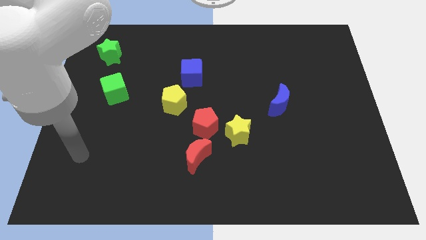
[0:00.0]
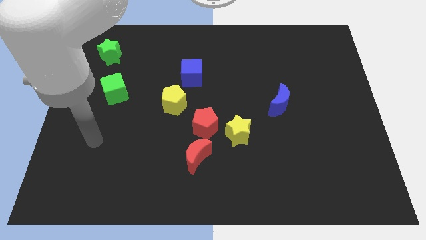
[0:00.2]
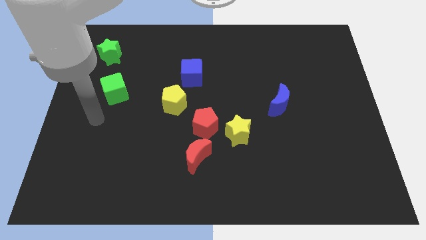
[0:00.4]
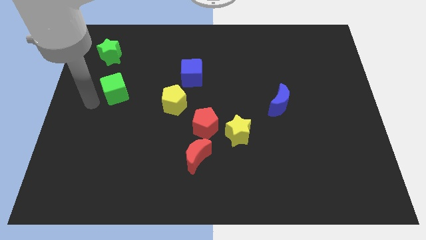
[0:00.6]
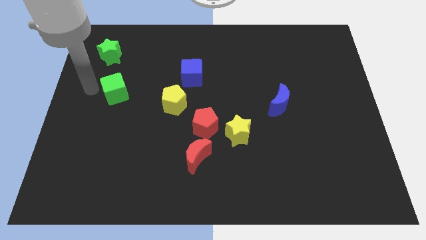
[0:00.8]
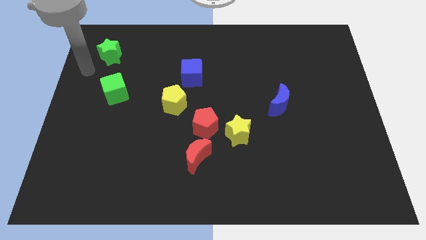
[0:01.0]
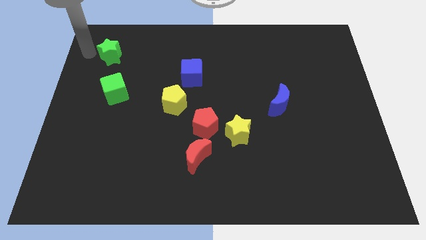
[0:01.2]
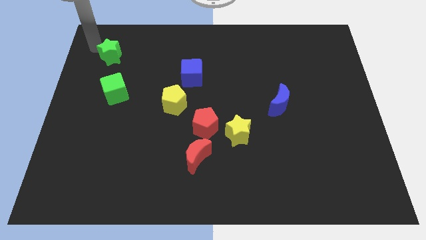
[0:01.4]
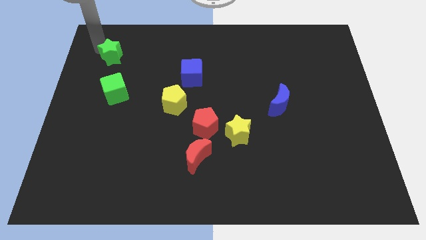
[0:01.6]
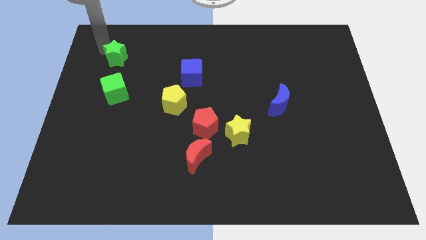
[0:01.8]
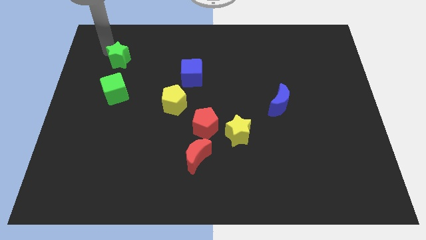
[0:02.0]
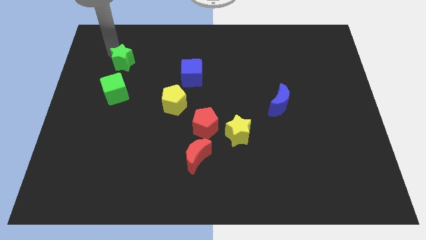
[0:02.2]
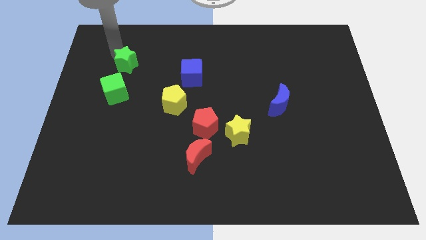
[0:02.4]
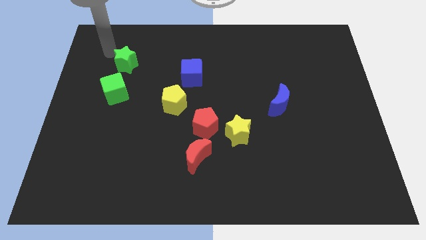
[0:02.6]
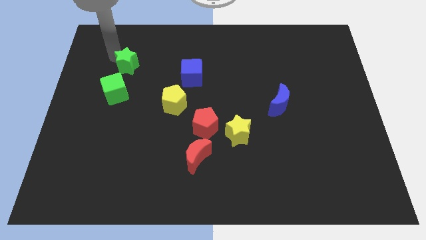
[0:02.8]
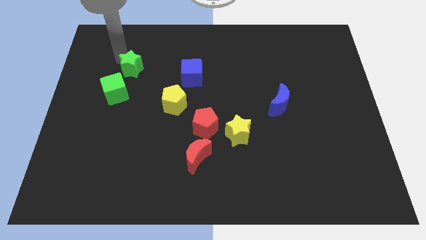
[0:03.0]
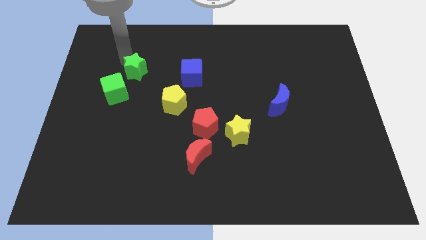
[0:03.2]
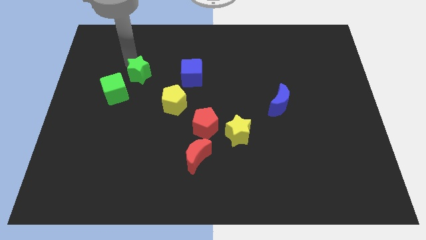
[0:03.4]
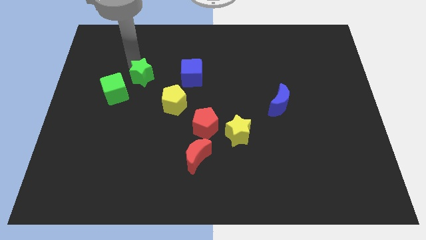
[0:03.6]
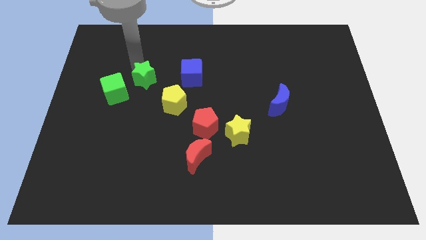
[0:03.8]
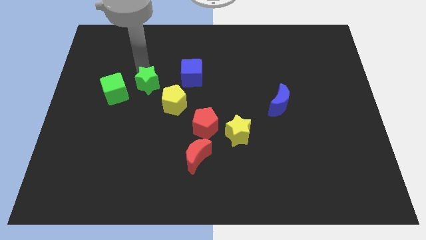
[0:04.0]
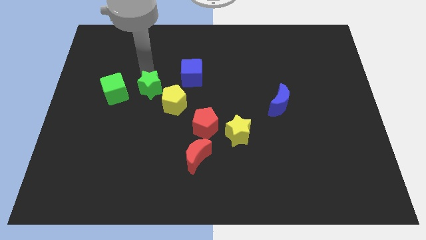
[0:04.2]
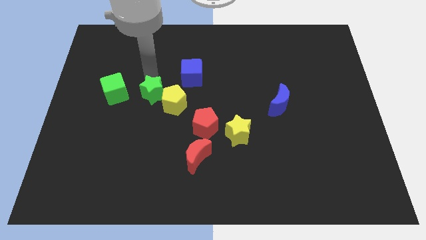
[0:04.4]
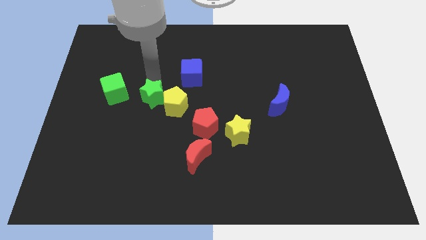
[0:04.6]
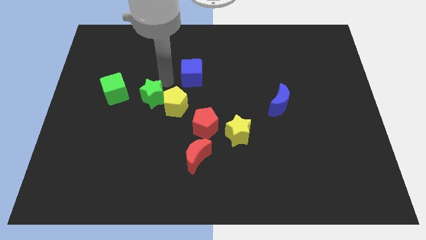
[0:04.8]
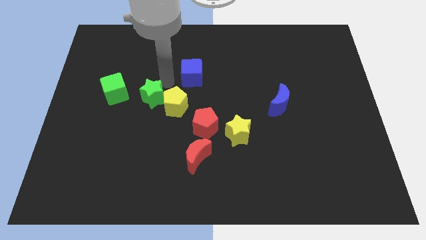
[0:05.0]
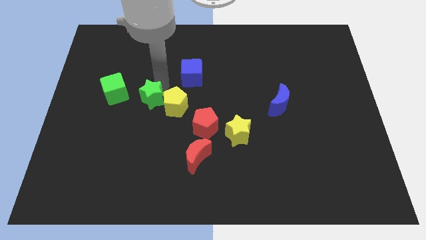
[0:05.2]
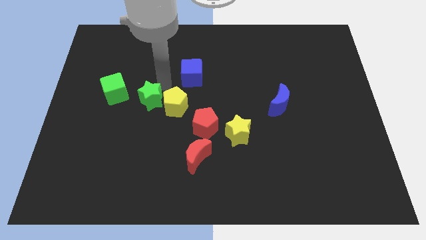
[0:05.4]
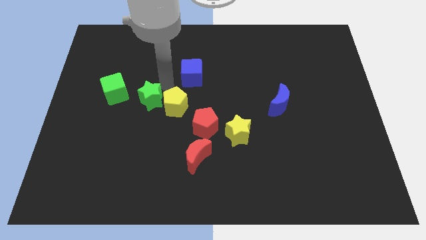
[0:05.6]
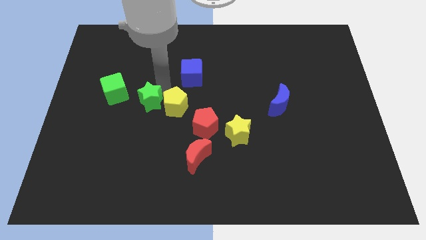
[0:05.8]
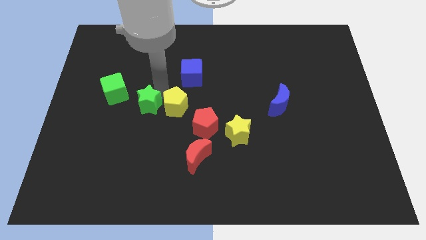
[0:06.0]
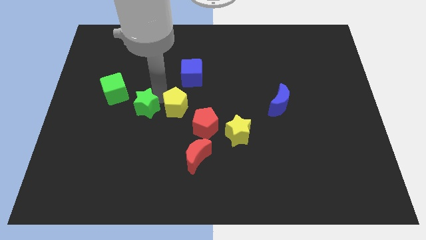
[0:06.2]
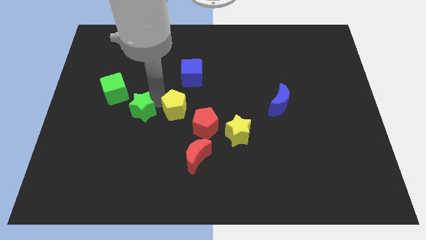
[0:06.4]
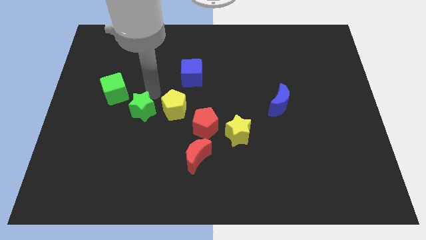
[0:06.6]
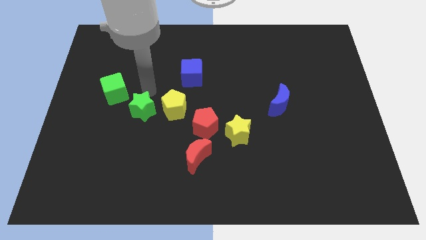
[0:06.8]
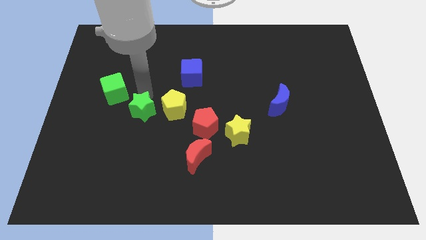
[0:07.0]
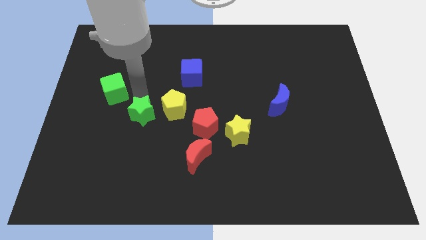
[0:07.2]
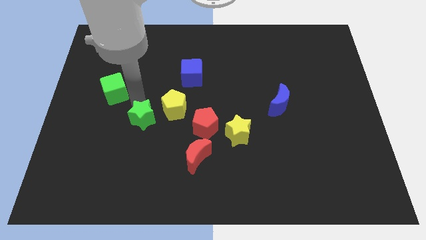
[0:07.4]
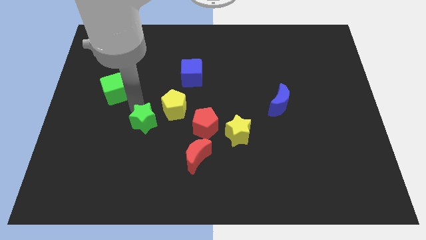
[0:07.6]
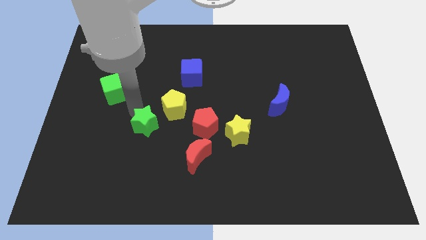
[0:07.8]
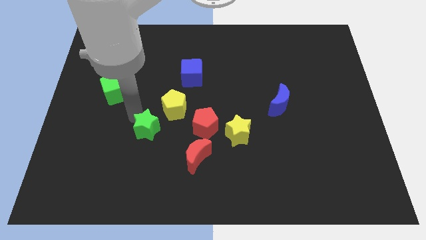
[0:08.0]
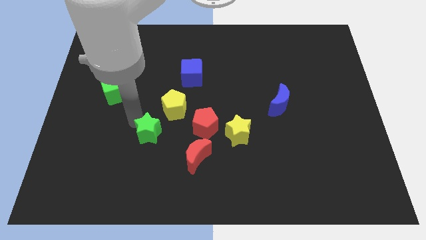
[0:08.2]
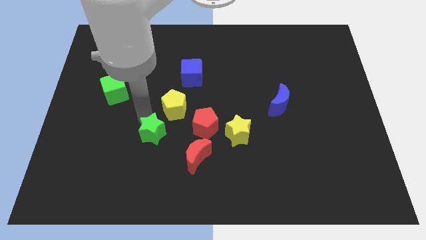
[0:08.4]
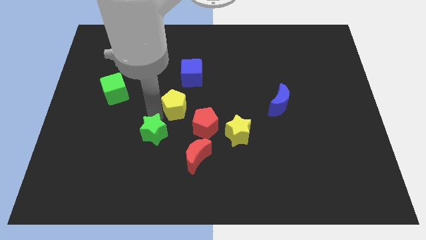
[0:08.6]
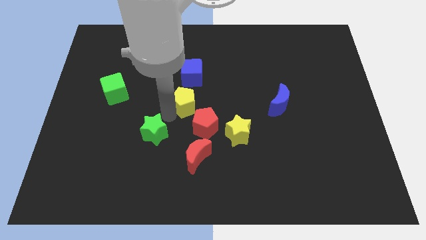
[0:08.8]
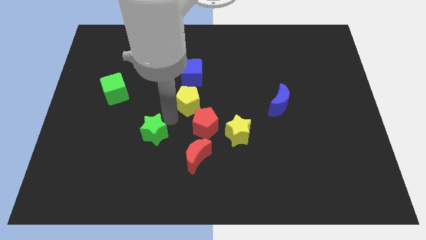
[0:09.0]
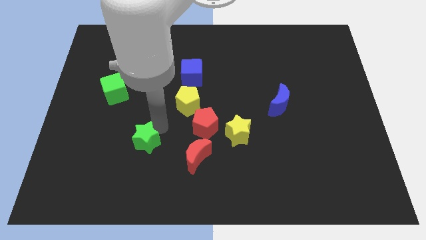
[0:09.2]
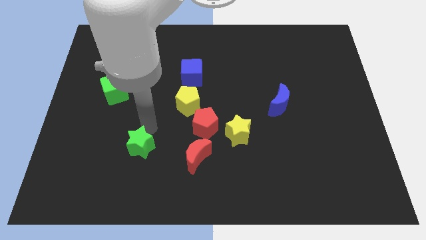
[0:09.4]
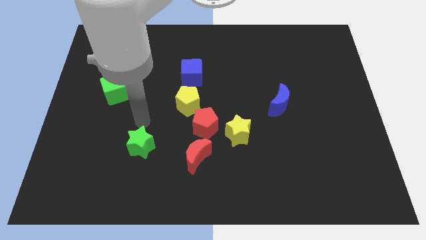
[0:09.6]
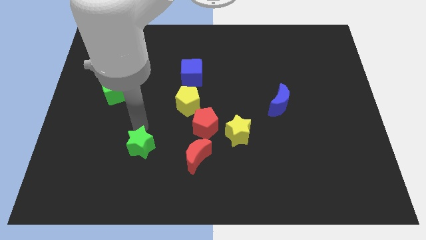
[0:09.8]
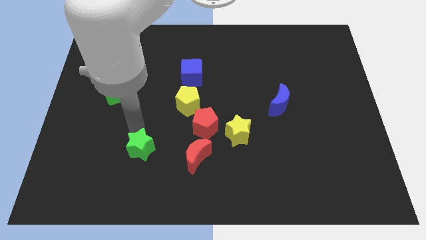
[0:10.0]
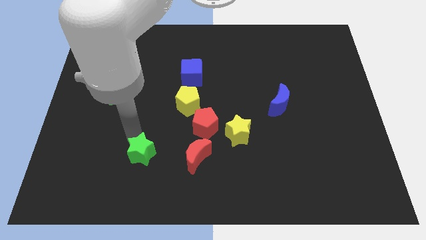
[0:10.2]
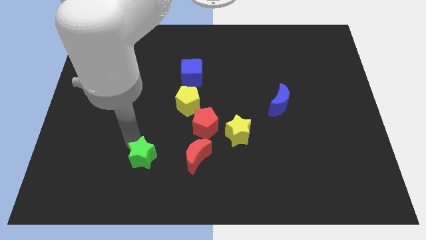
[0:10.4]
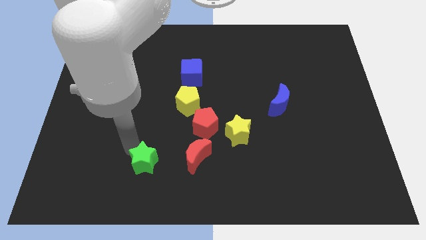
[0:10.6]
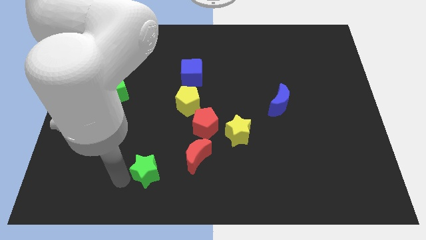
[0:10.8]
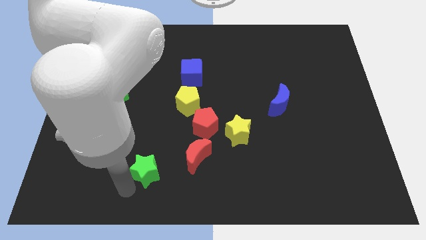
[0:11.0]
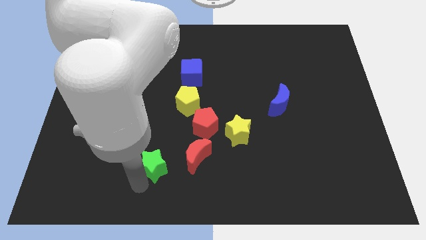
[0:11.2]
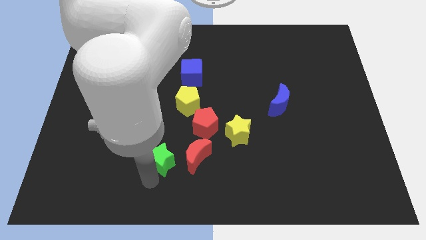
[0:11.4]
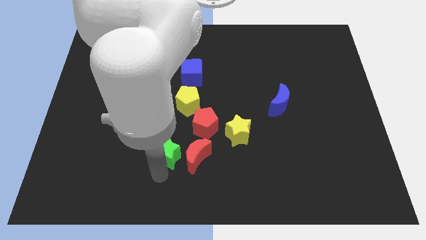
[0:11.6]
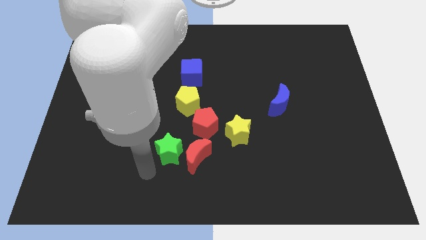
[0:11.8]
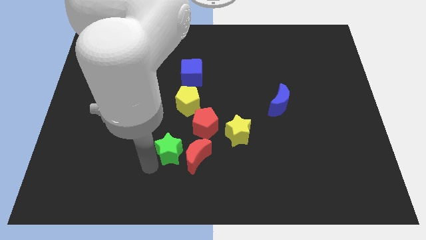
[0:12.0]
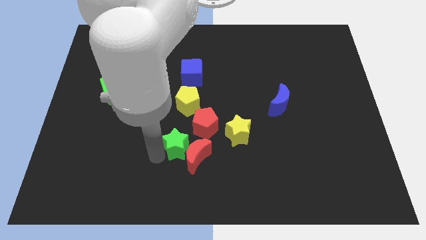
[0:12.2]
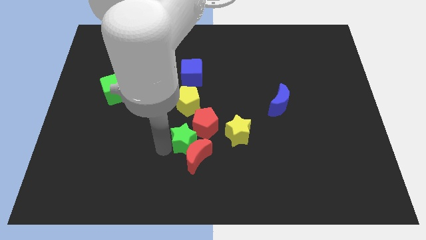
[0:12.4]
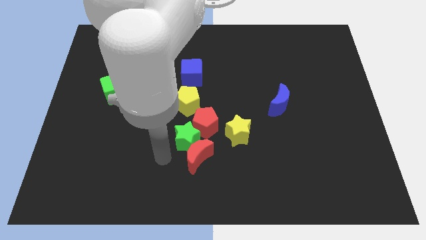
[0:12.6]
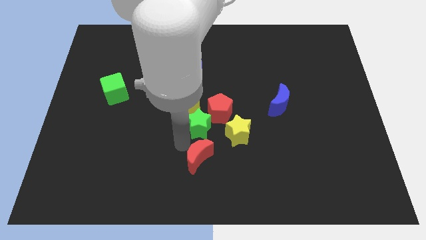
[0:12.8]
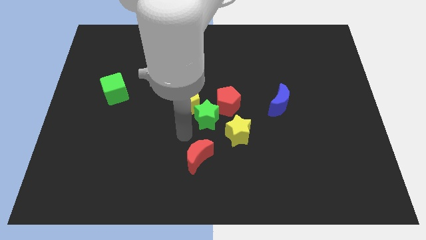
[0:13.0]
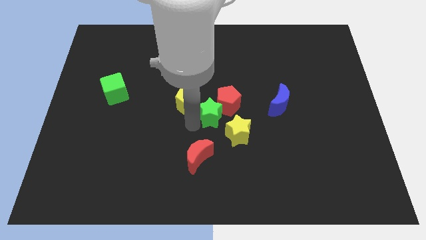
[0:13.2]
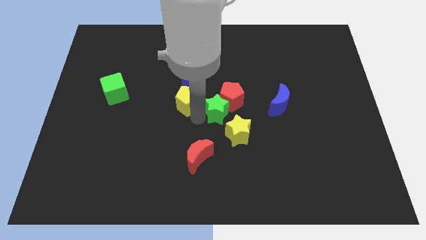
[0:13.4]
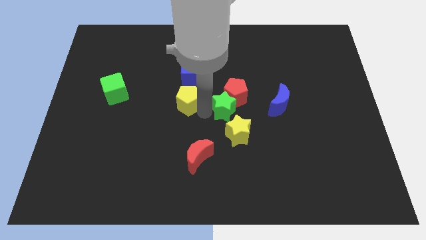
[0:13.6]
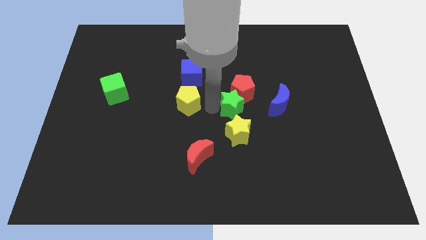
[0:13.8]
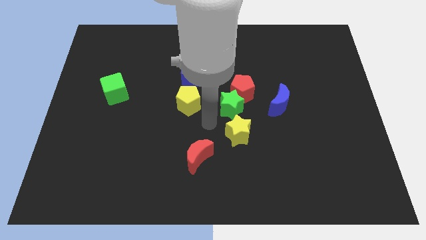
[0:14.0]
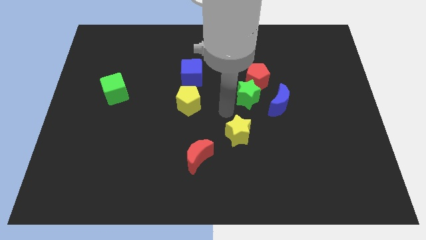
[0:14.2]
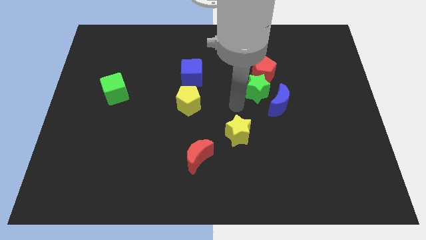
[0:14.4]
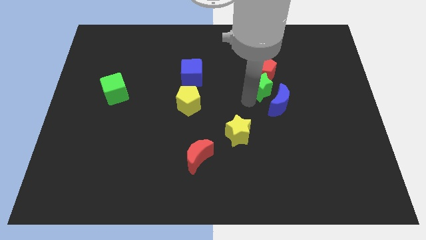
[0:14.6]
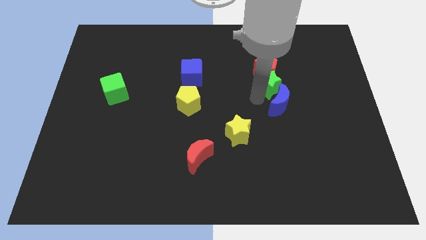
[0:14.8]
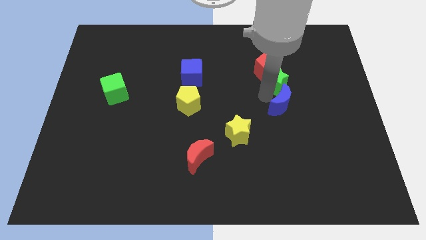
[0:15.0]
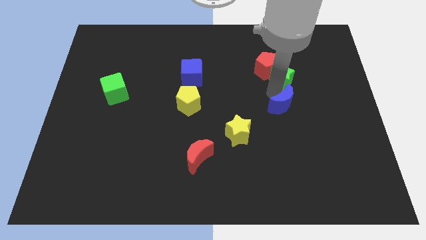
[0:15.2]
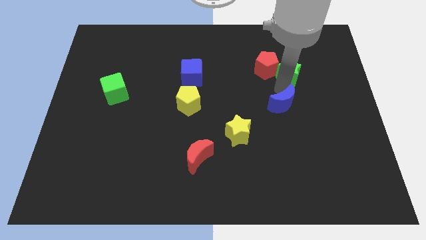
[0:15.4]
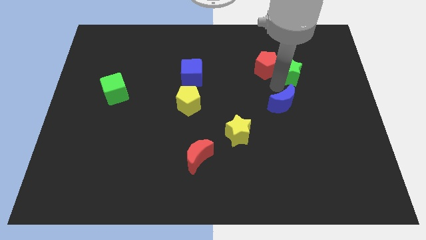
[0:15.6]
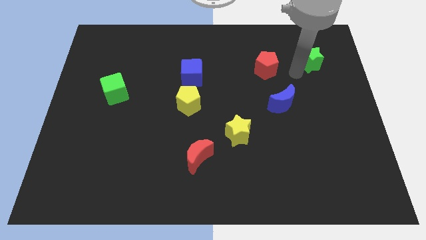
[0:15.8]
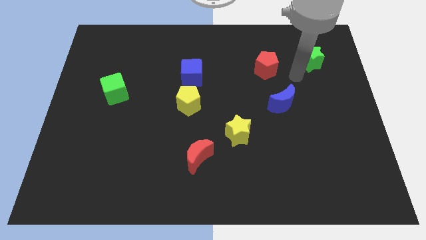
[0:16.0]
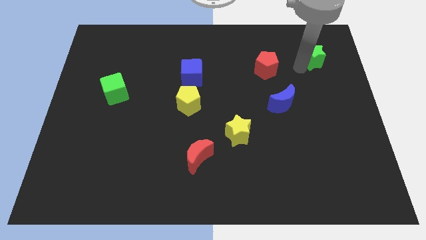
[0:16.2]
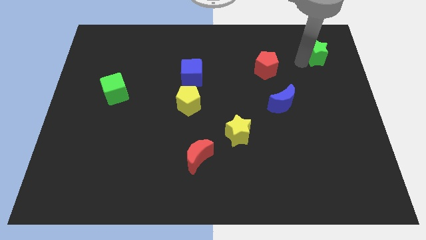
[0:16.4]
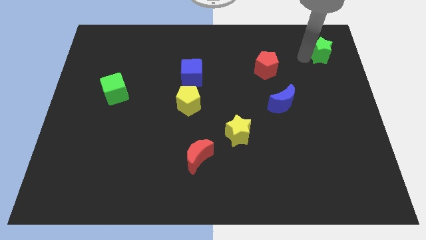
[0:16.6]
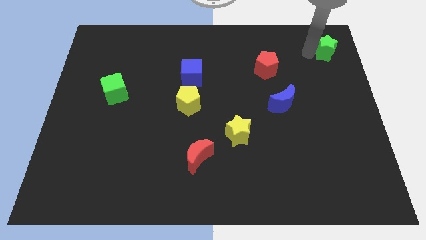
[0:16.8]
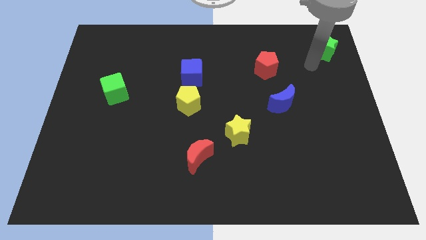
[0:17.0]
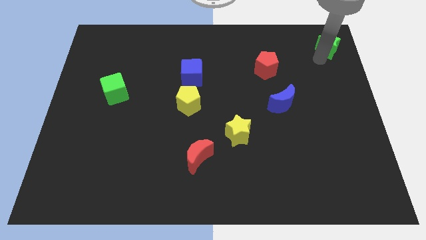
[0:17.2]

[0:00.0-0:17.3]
move the green star to the top right corner
